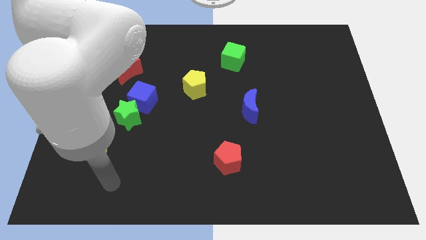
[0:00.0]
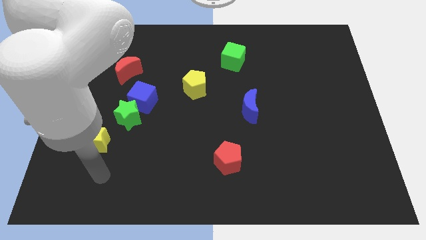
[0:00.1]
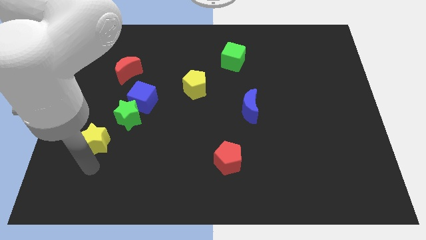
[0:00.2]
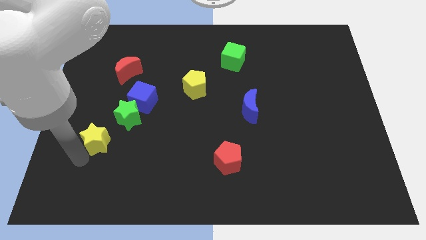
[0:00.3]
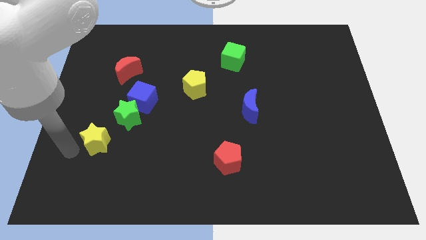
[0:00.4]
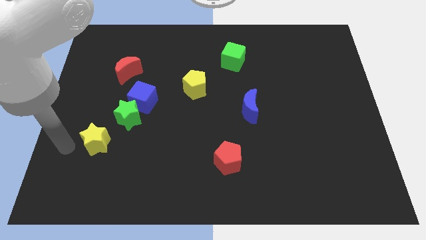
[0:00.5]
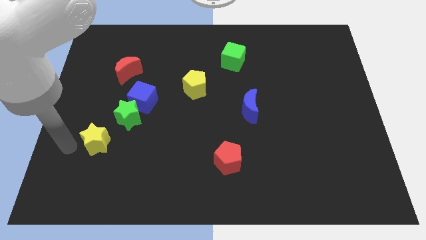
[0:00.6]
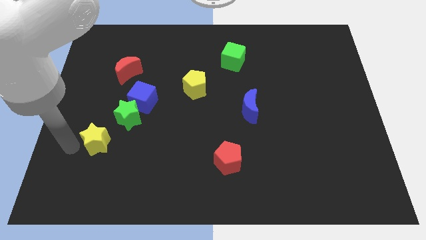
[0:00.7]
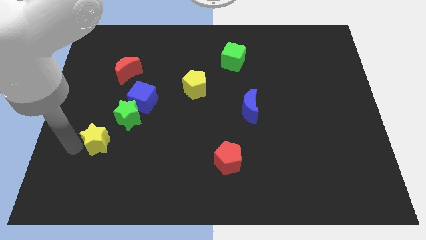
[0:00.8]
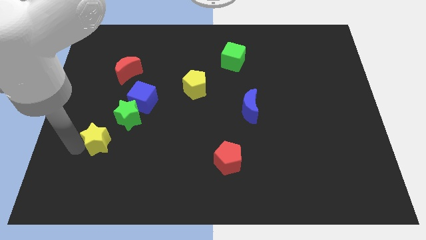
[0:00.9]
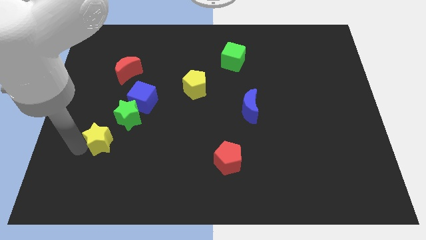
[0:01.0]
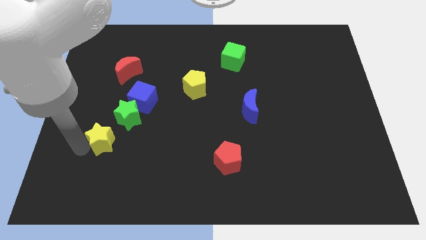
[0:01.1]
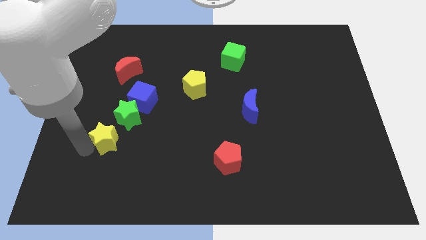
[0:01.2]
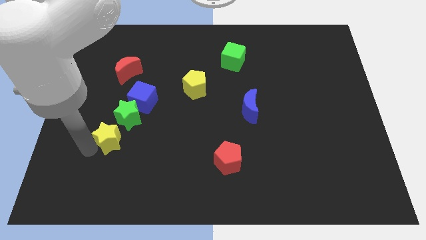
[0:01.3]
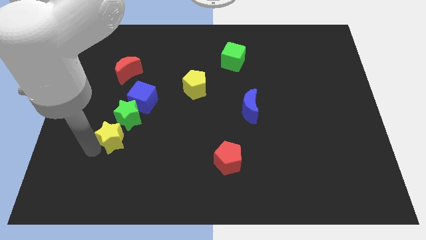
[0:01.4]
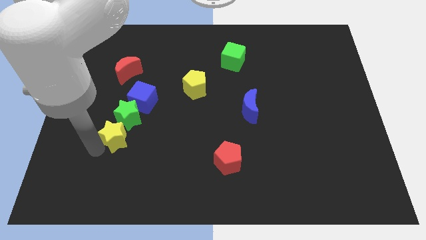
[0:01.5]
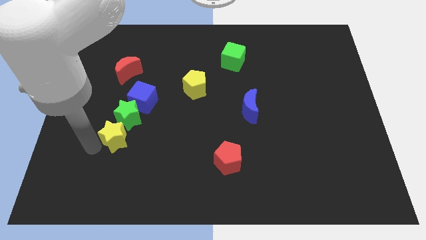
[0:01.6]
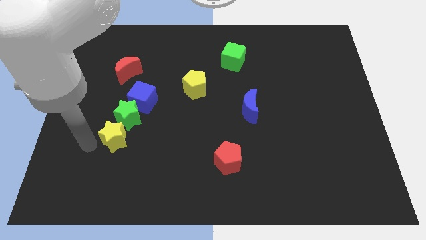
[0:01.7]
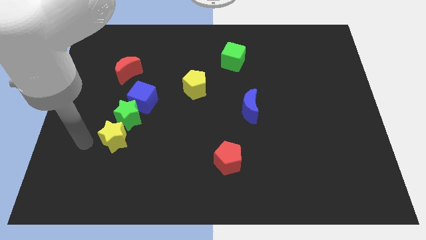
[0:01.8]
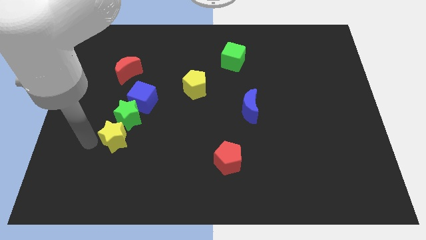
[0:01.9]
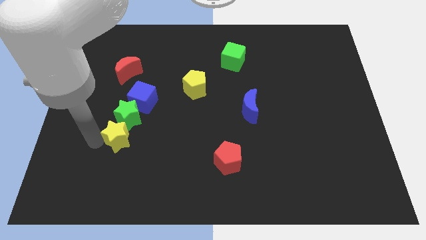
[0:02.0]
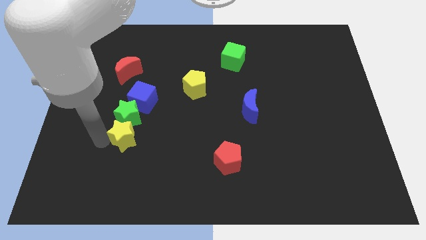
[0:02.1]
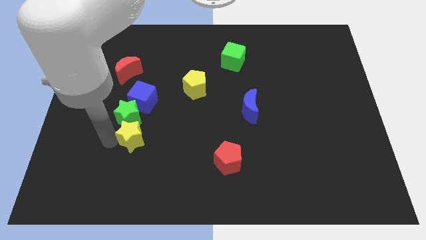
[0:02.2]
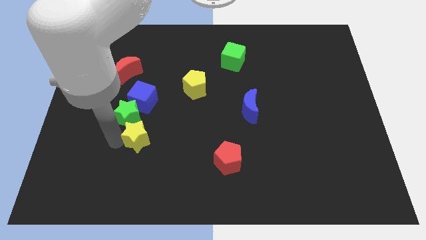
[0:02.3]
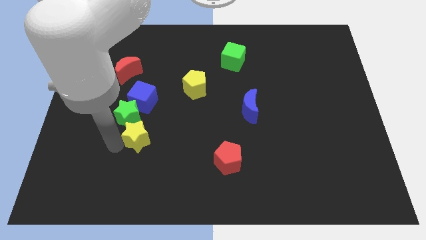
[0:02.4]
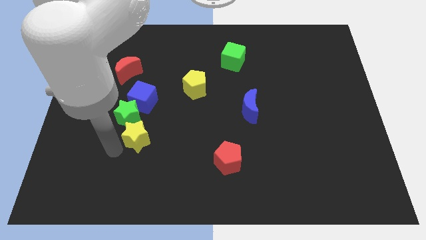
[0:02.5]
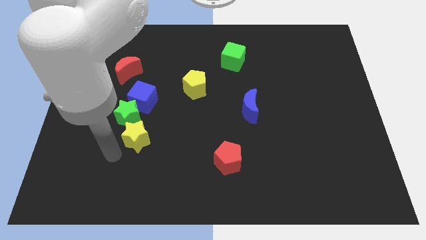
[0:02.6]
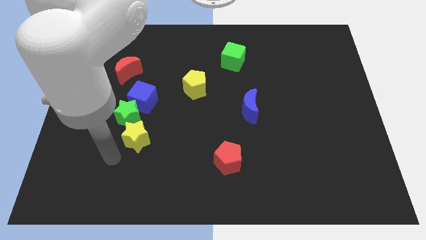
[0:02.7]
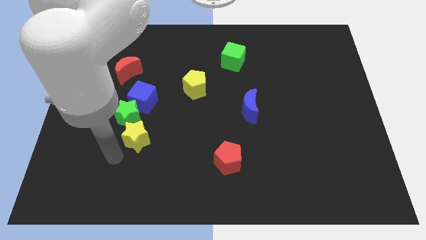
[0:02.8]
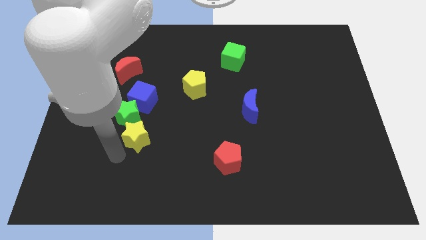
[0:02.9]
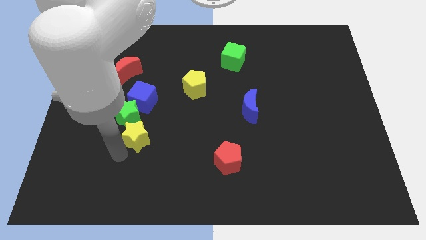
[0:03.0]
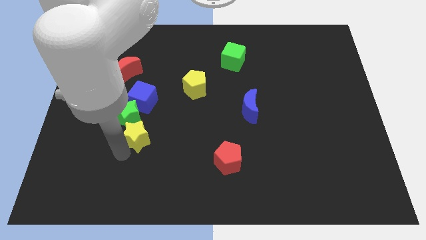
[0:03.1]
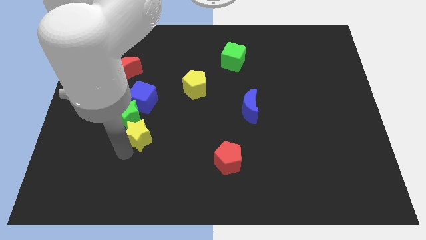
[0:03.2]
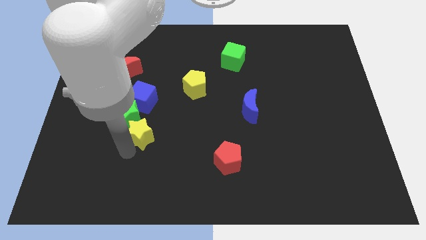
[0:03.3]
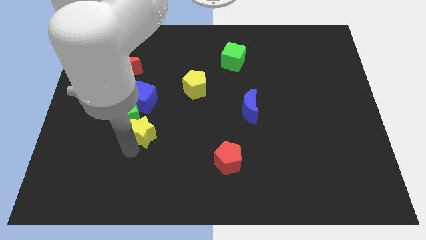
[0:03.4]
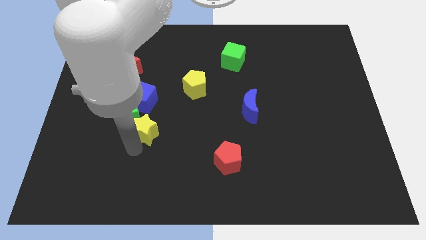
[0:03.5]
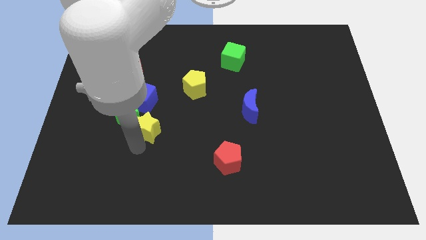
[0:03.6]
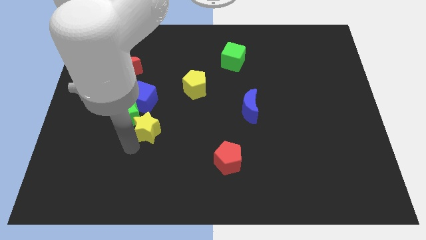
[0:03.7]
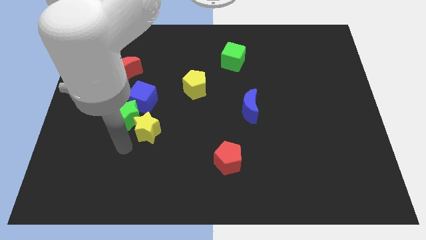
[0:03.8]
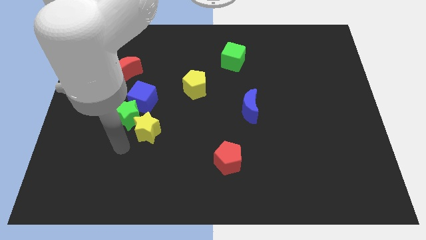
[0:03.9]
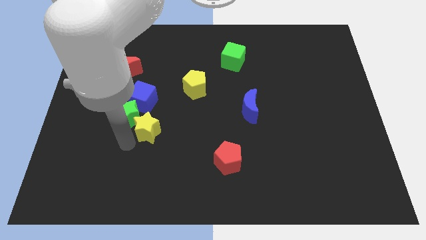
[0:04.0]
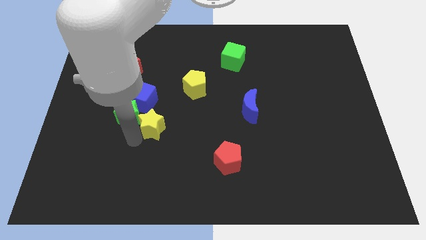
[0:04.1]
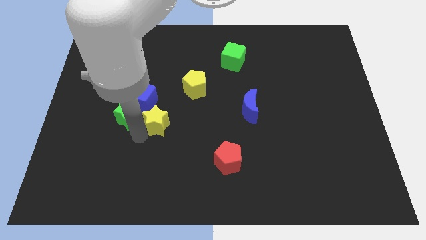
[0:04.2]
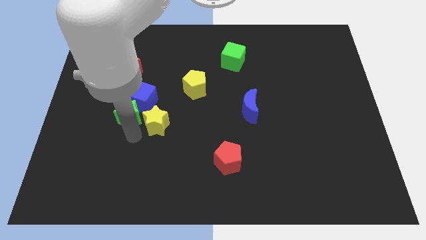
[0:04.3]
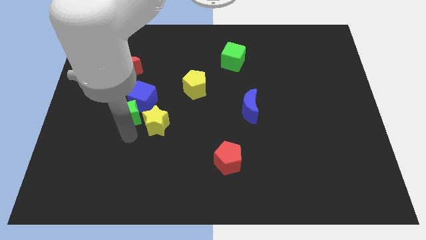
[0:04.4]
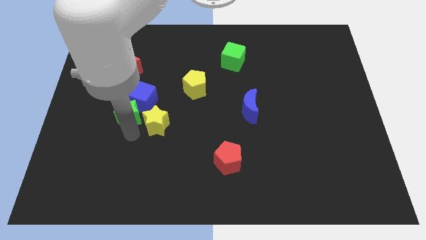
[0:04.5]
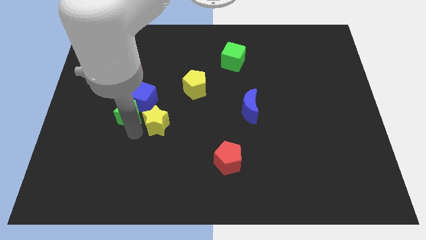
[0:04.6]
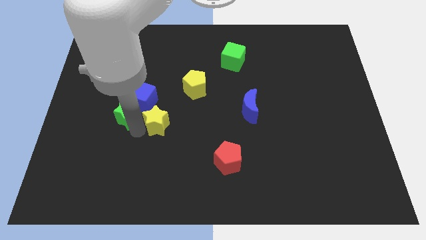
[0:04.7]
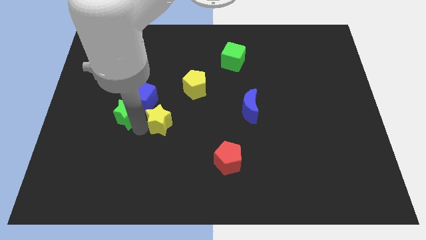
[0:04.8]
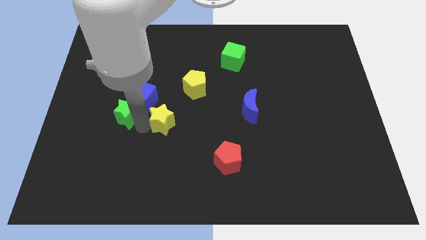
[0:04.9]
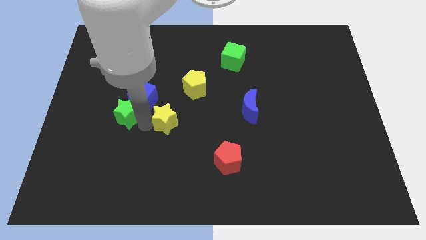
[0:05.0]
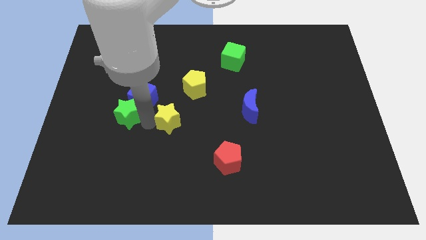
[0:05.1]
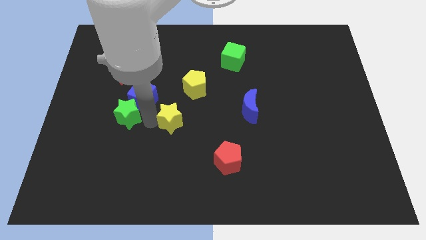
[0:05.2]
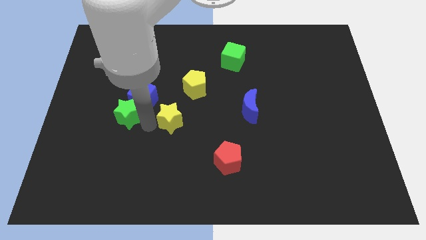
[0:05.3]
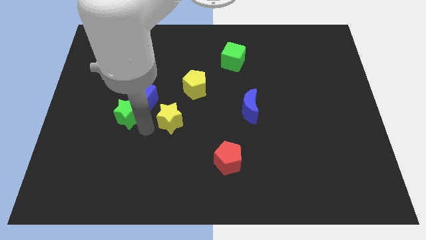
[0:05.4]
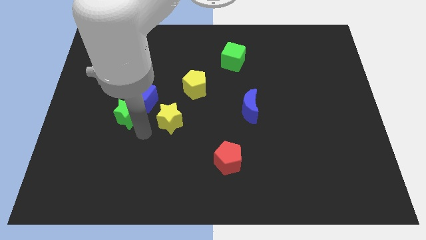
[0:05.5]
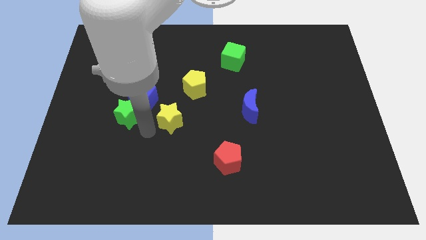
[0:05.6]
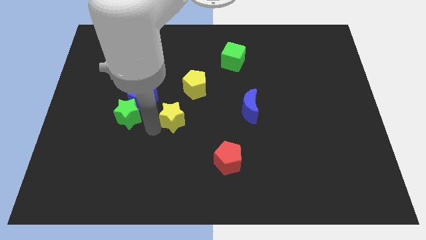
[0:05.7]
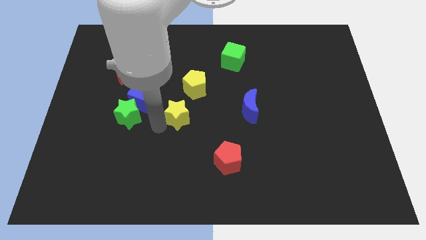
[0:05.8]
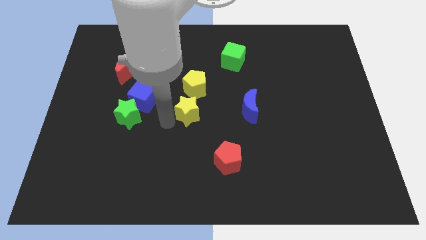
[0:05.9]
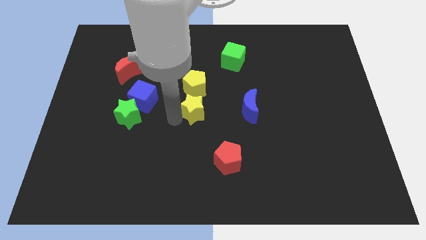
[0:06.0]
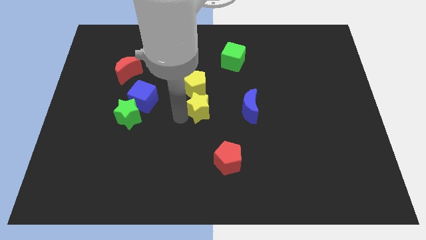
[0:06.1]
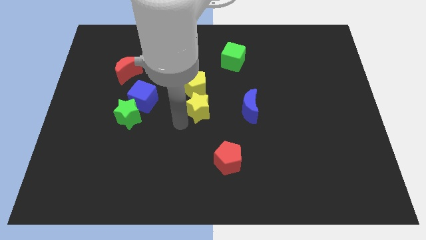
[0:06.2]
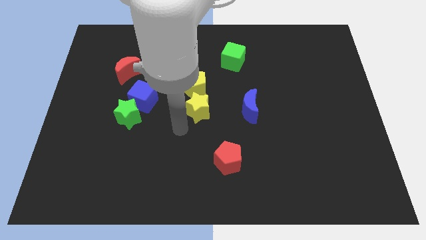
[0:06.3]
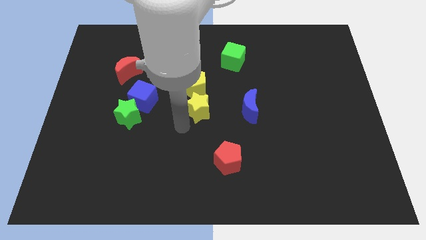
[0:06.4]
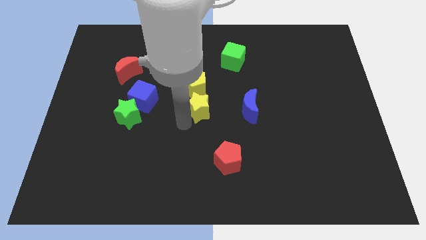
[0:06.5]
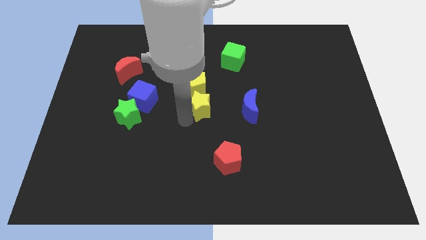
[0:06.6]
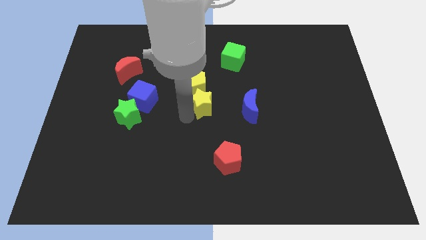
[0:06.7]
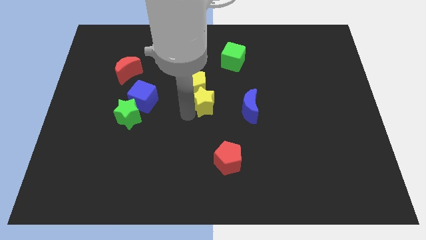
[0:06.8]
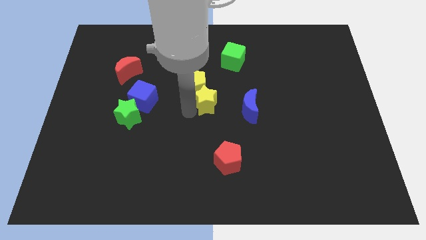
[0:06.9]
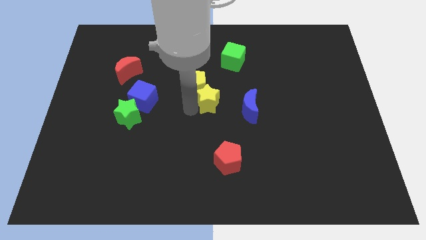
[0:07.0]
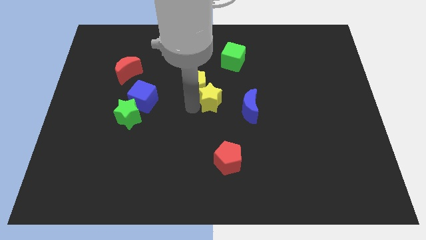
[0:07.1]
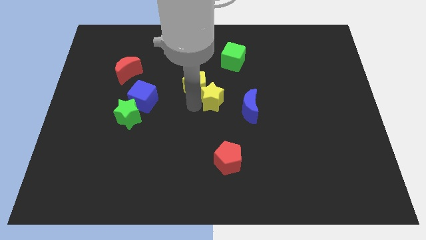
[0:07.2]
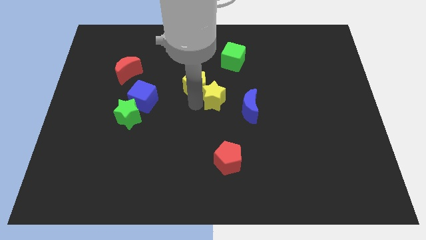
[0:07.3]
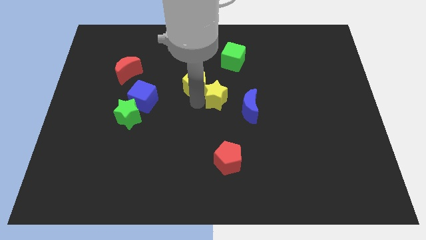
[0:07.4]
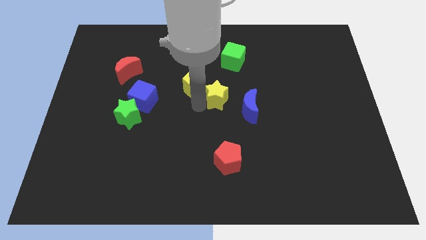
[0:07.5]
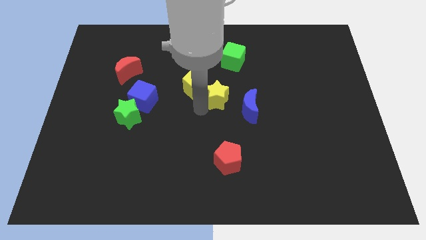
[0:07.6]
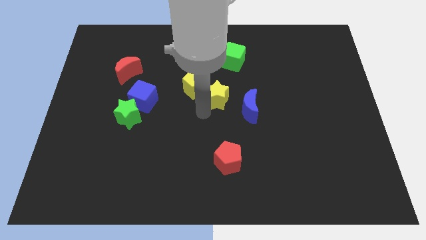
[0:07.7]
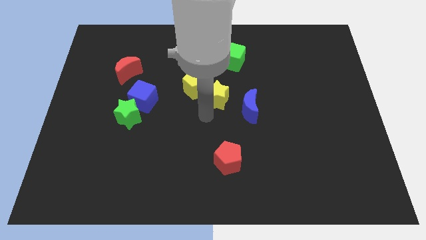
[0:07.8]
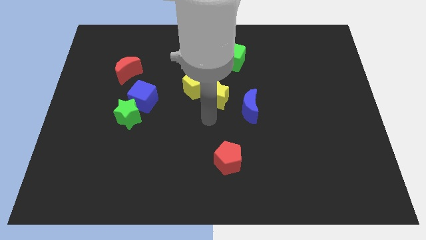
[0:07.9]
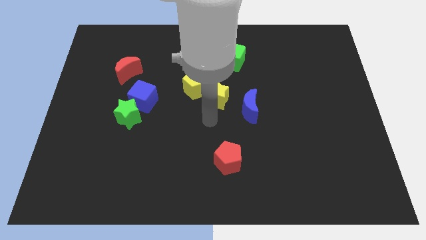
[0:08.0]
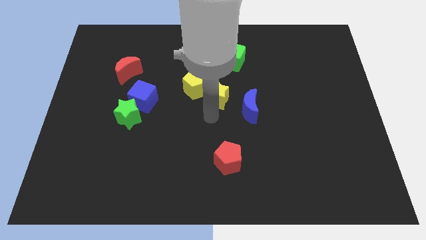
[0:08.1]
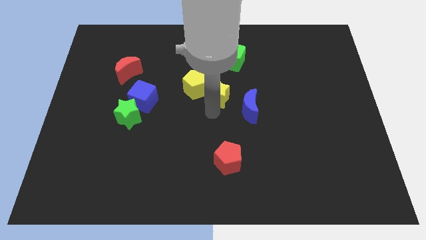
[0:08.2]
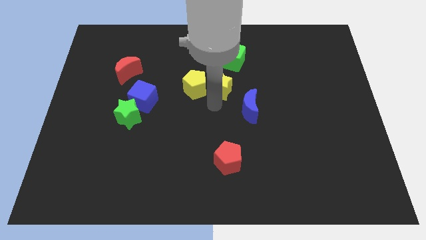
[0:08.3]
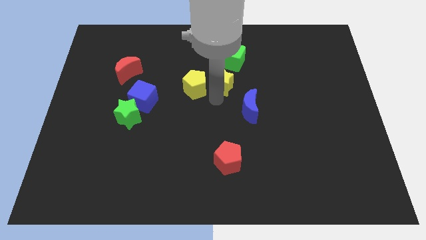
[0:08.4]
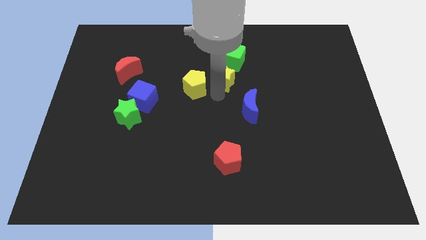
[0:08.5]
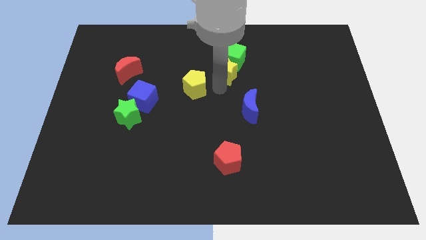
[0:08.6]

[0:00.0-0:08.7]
put the yellow star to the green cube
